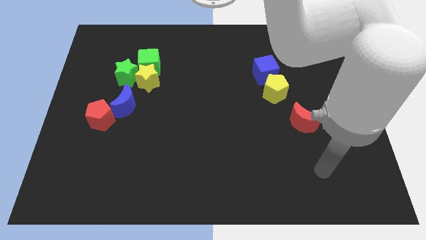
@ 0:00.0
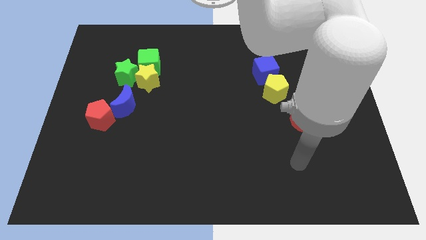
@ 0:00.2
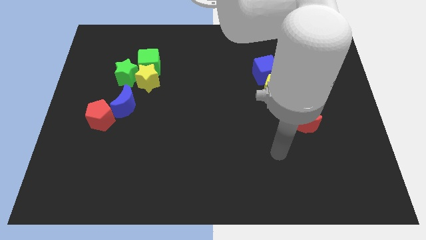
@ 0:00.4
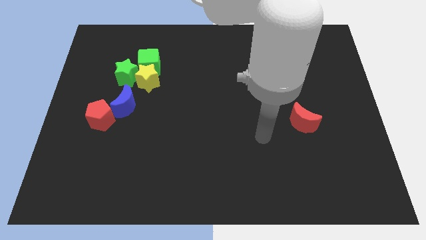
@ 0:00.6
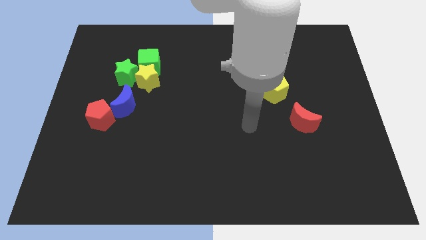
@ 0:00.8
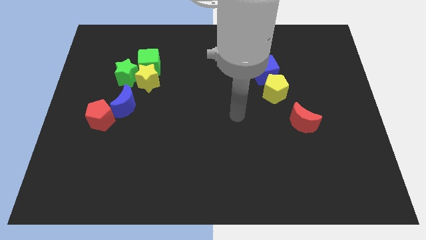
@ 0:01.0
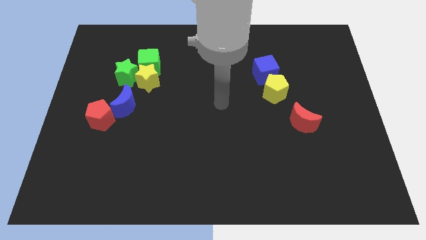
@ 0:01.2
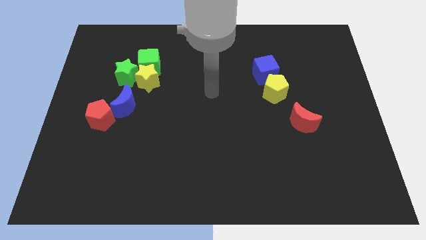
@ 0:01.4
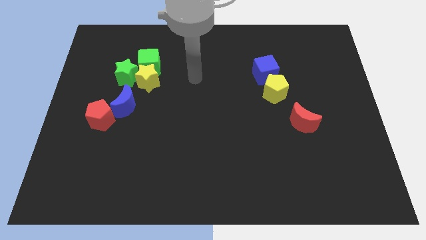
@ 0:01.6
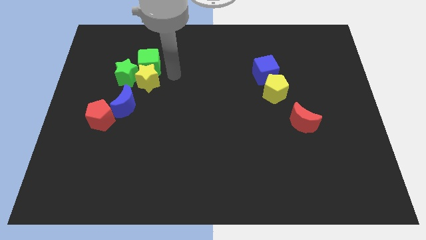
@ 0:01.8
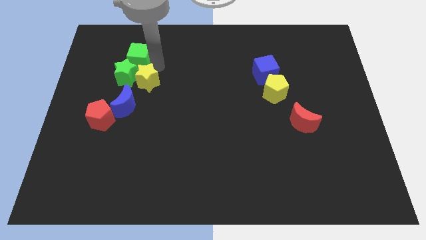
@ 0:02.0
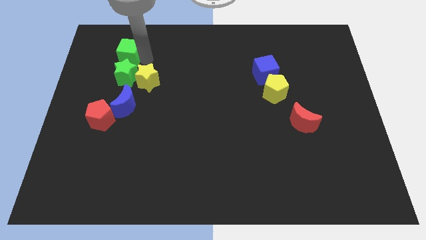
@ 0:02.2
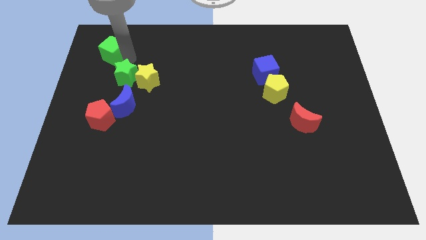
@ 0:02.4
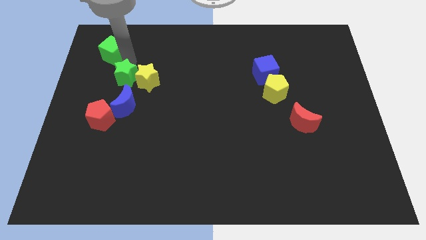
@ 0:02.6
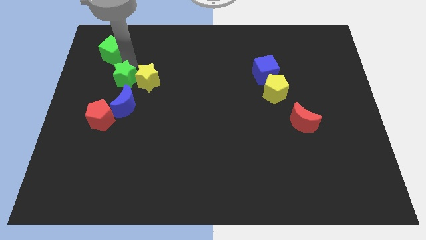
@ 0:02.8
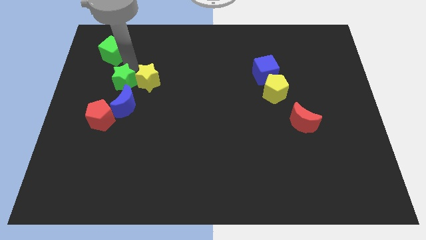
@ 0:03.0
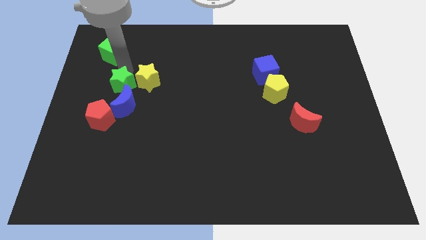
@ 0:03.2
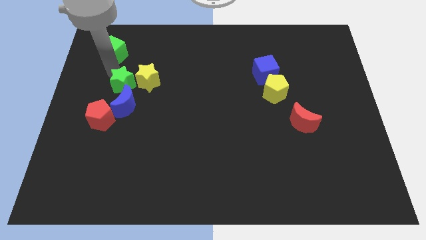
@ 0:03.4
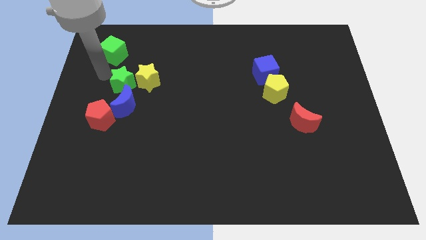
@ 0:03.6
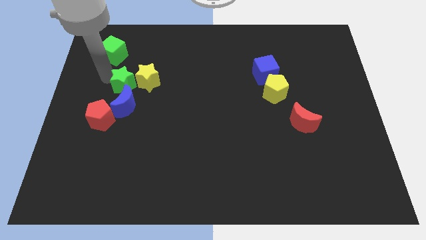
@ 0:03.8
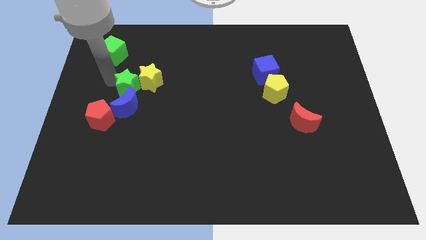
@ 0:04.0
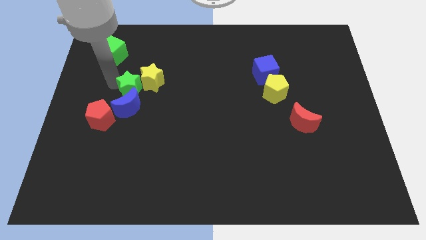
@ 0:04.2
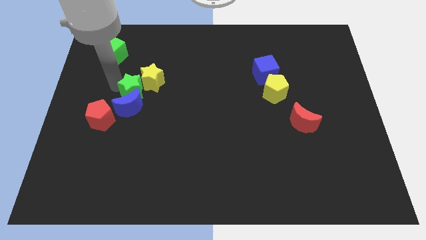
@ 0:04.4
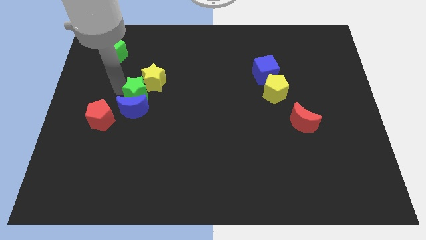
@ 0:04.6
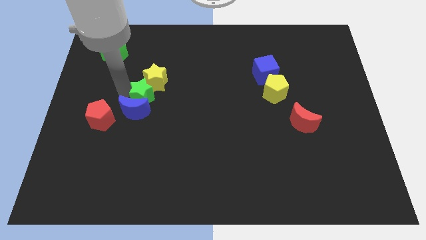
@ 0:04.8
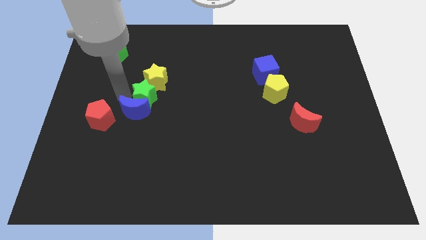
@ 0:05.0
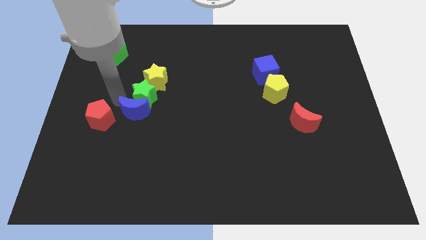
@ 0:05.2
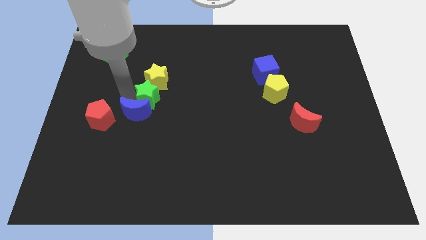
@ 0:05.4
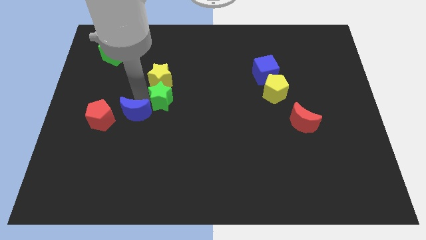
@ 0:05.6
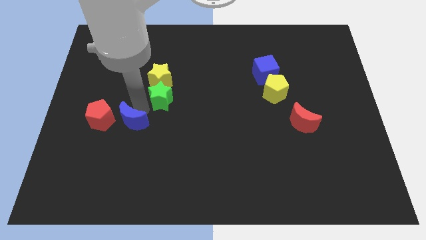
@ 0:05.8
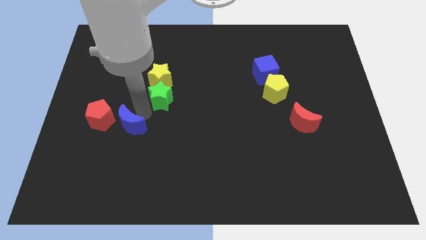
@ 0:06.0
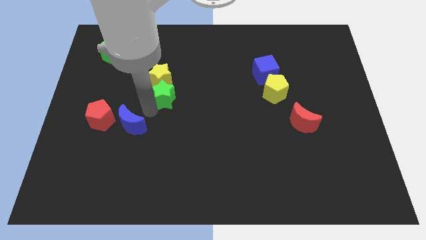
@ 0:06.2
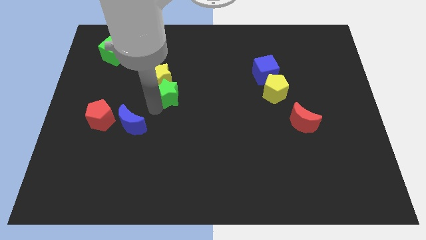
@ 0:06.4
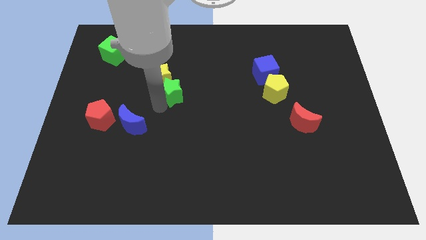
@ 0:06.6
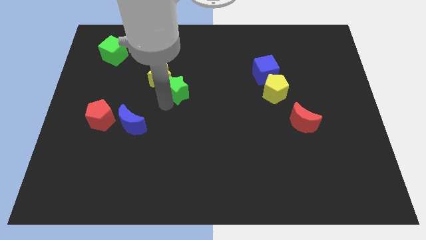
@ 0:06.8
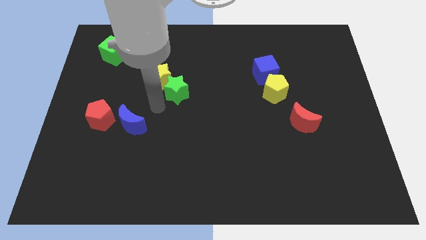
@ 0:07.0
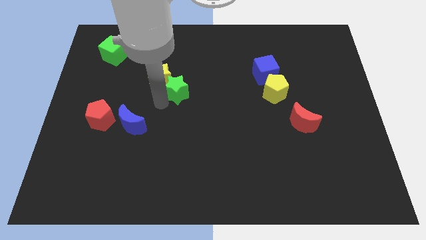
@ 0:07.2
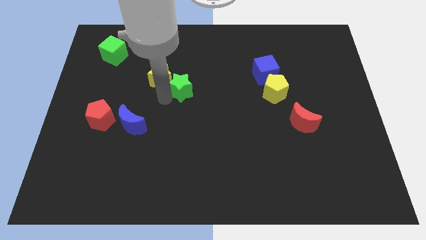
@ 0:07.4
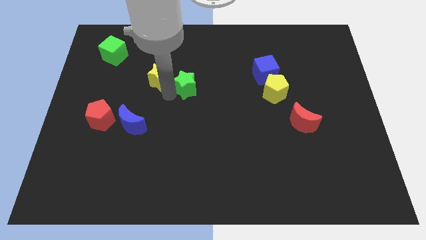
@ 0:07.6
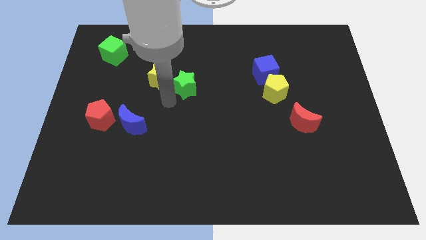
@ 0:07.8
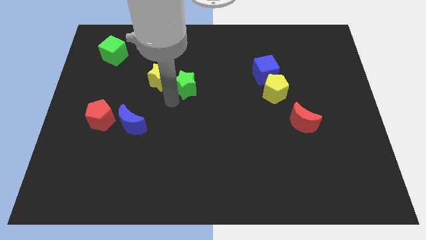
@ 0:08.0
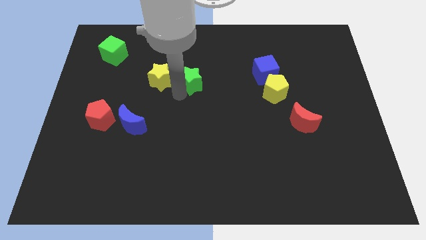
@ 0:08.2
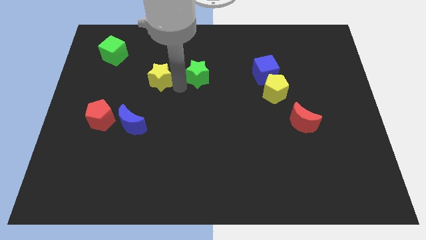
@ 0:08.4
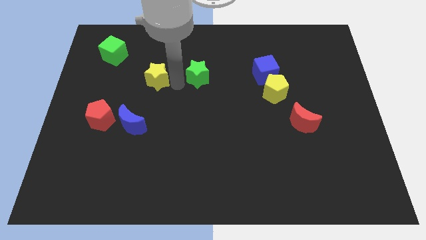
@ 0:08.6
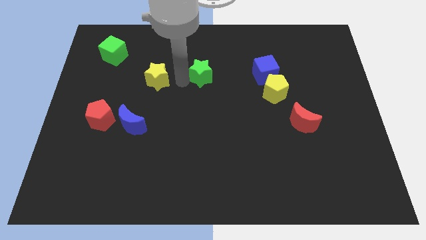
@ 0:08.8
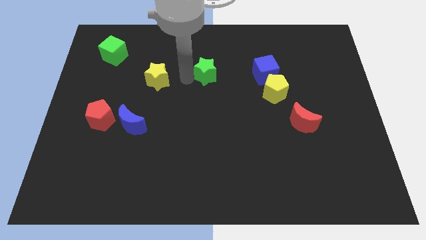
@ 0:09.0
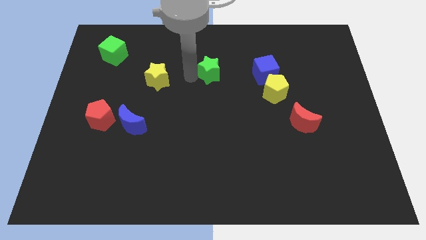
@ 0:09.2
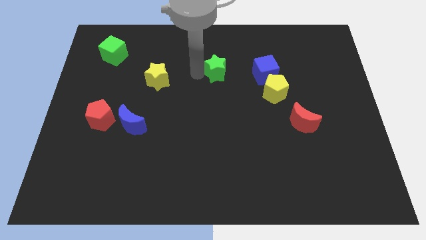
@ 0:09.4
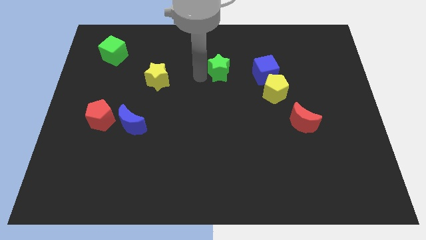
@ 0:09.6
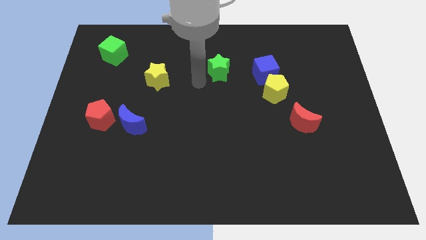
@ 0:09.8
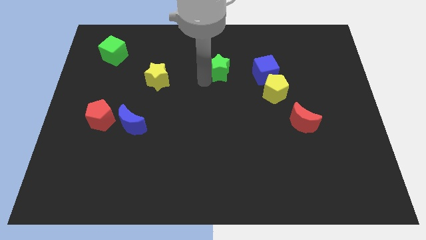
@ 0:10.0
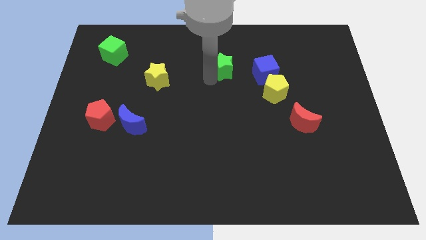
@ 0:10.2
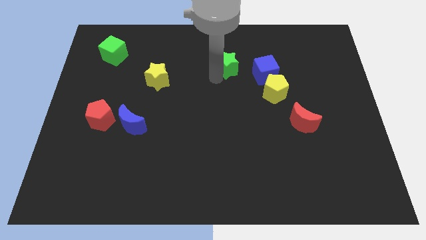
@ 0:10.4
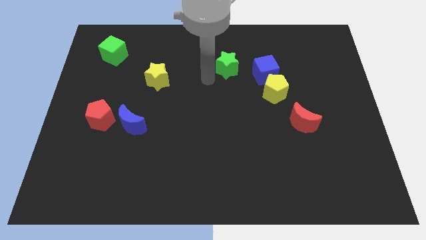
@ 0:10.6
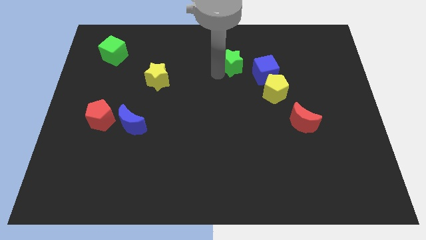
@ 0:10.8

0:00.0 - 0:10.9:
put the green star to the top left side of the blue cube

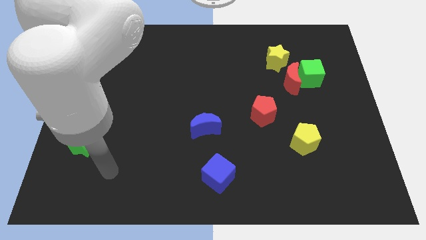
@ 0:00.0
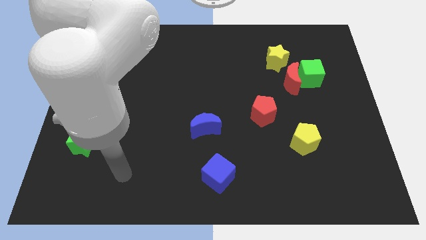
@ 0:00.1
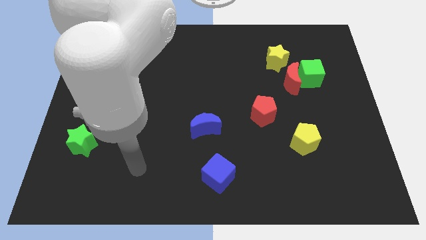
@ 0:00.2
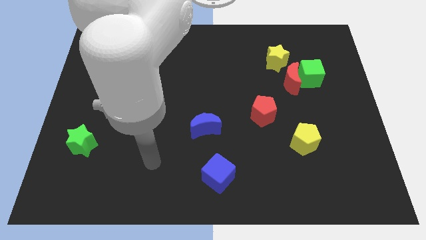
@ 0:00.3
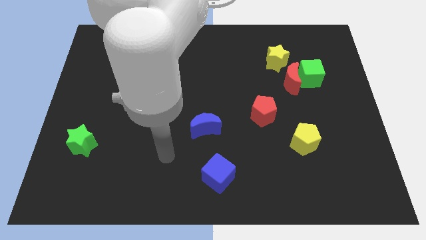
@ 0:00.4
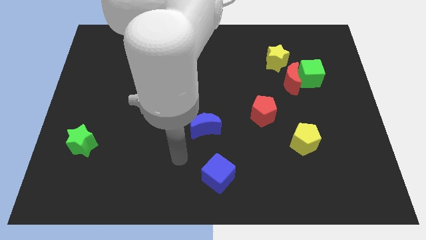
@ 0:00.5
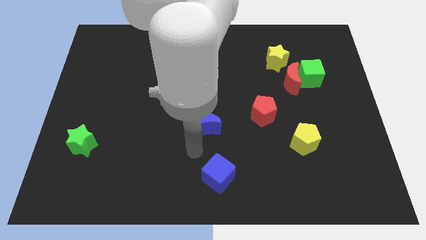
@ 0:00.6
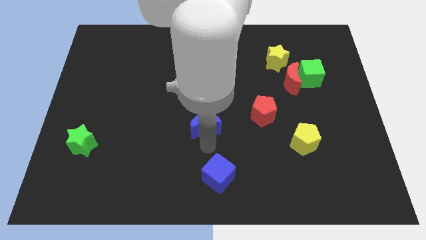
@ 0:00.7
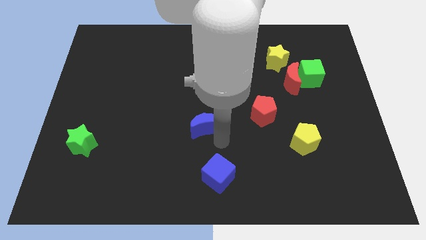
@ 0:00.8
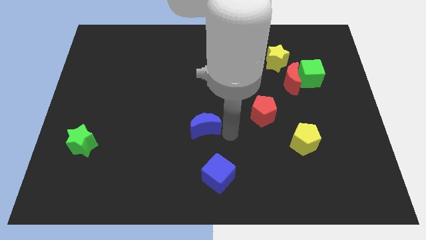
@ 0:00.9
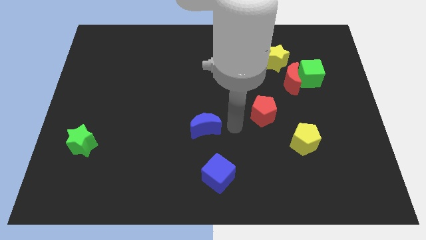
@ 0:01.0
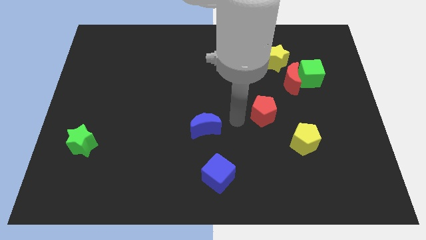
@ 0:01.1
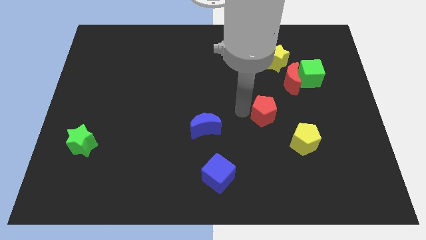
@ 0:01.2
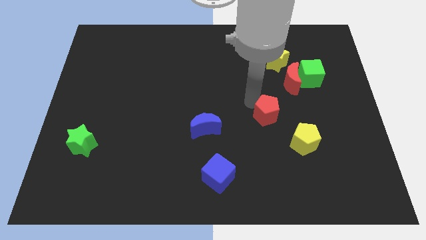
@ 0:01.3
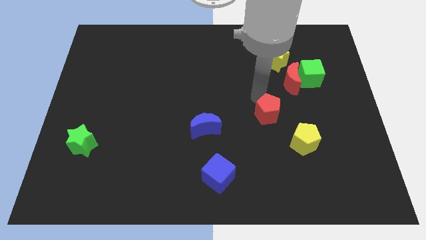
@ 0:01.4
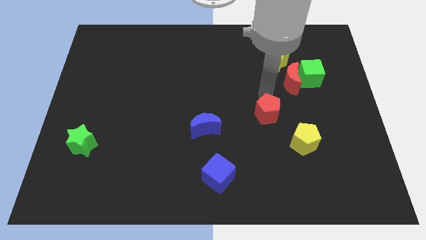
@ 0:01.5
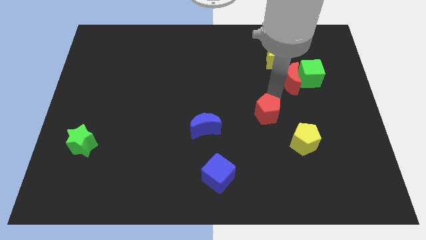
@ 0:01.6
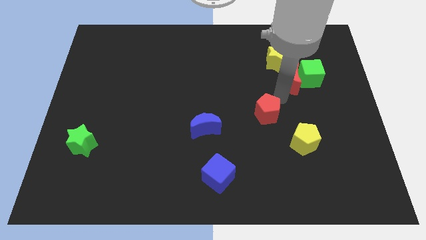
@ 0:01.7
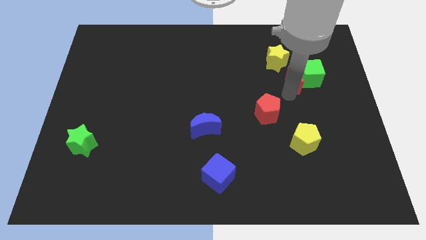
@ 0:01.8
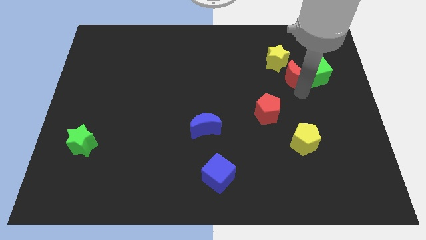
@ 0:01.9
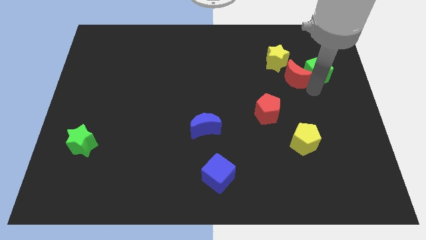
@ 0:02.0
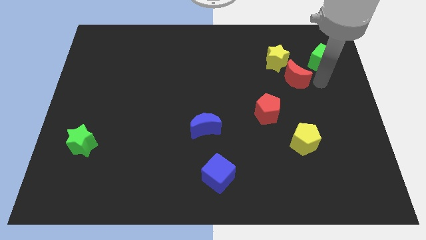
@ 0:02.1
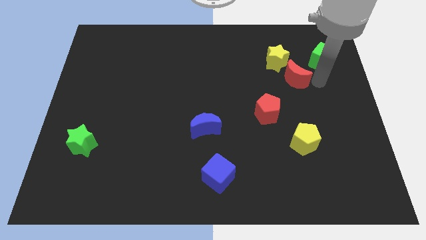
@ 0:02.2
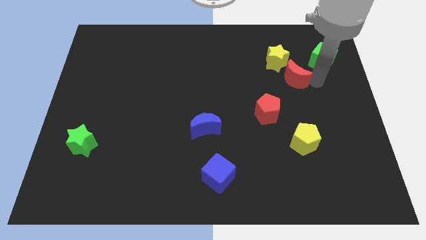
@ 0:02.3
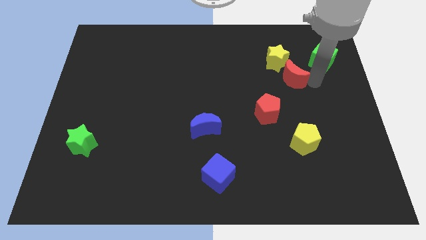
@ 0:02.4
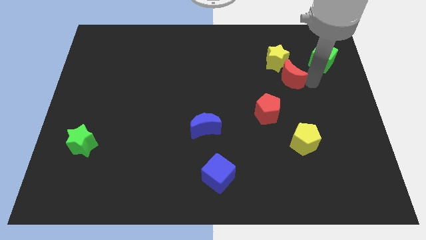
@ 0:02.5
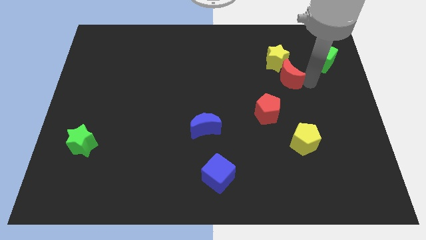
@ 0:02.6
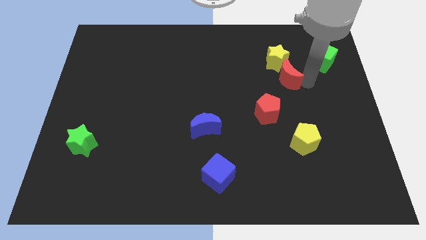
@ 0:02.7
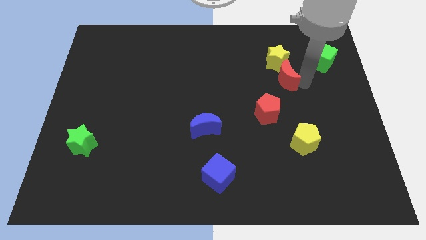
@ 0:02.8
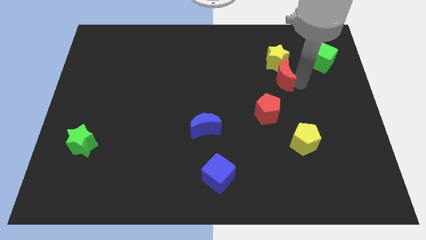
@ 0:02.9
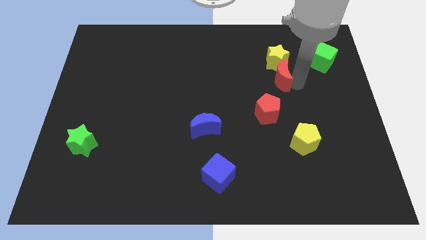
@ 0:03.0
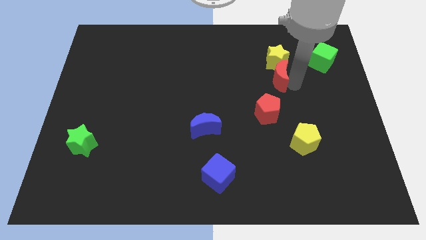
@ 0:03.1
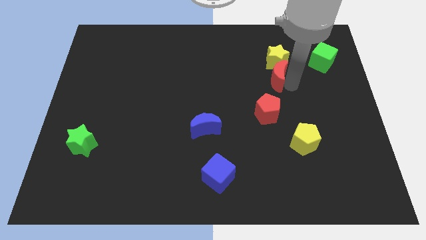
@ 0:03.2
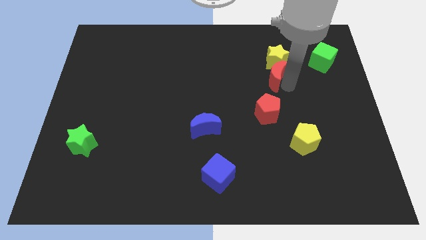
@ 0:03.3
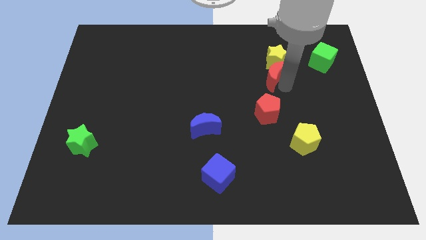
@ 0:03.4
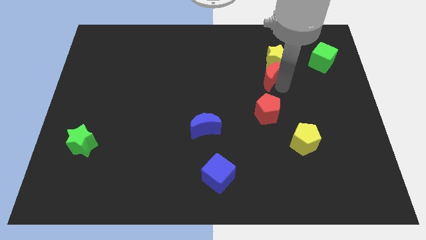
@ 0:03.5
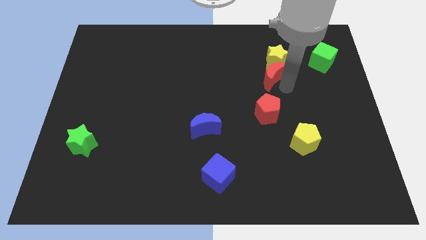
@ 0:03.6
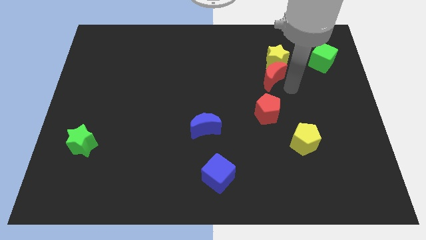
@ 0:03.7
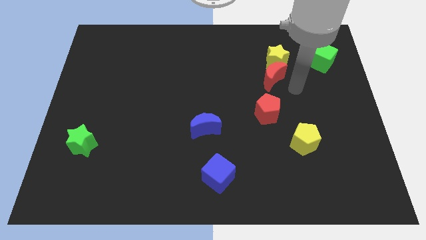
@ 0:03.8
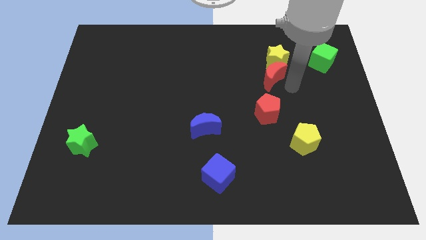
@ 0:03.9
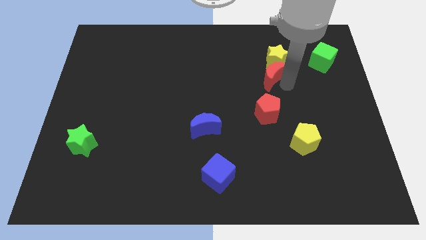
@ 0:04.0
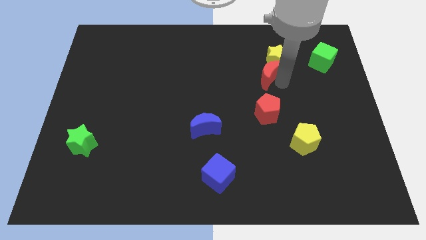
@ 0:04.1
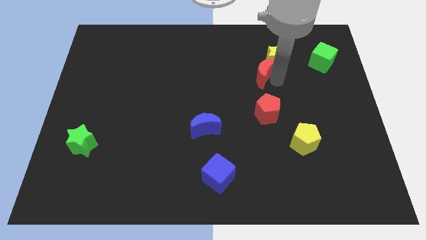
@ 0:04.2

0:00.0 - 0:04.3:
move the red moon just left of the yellow star
